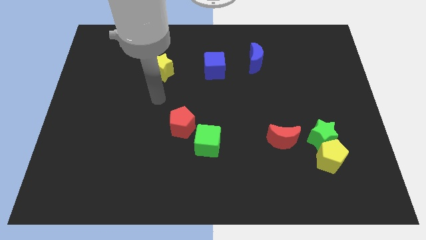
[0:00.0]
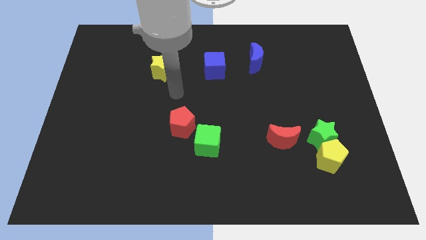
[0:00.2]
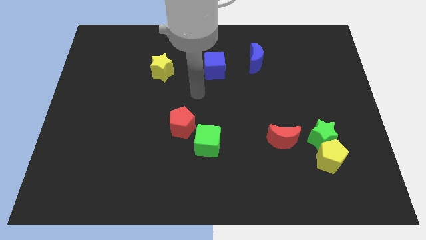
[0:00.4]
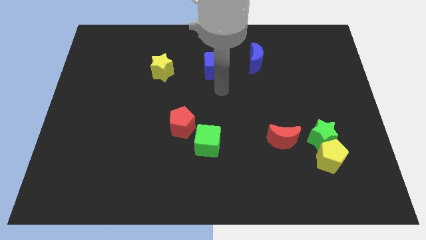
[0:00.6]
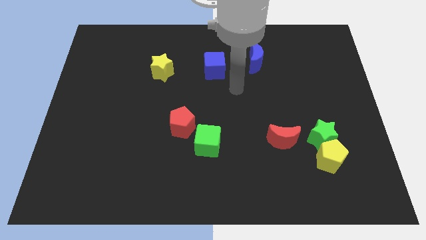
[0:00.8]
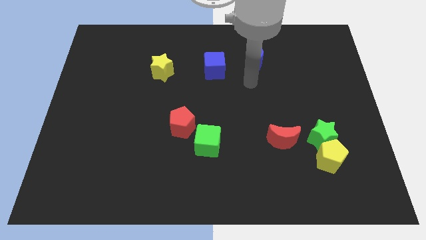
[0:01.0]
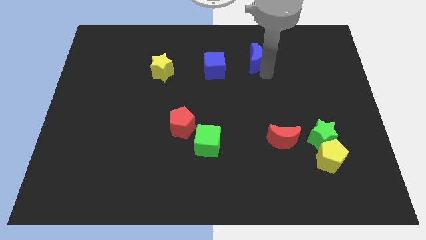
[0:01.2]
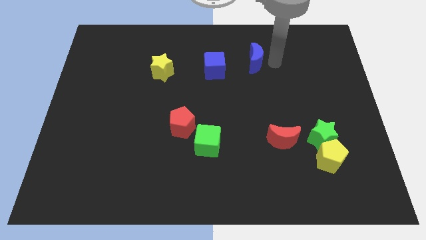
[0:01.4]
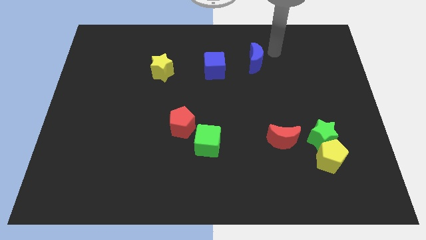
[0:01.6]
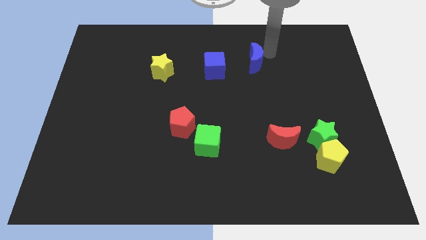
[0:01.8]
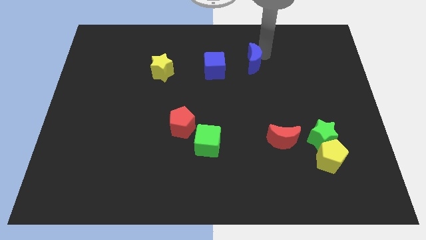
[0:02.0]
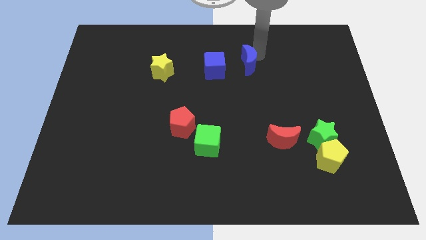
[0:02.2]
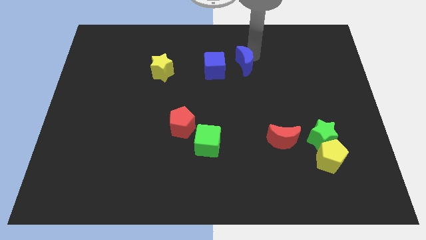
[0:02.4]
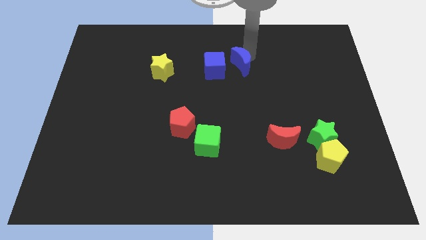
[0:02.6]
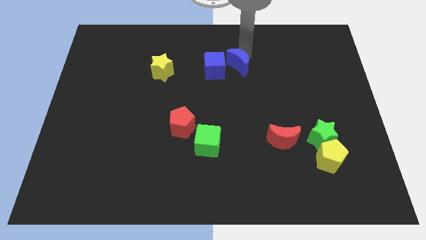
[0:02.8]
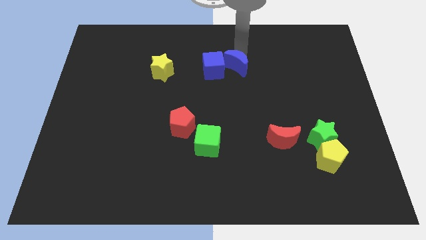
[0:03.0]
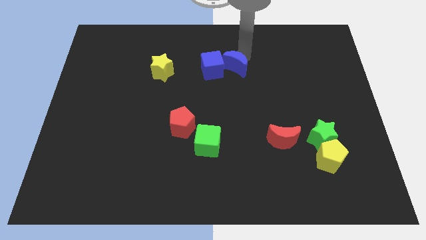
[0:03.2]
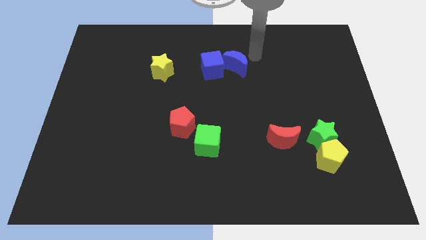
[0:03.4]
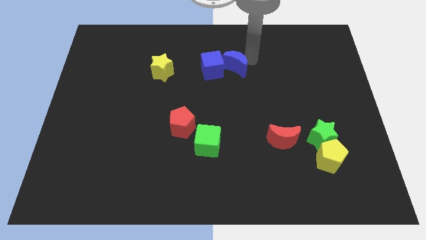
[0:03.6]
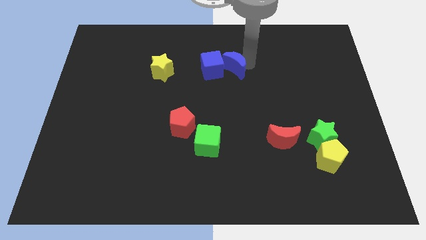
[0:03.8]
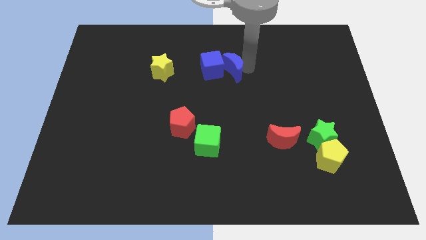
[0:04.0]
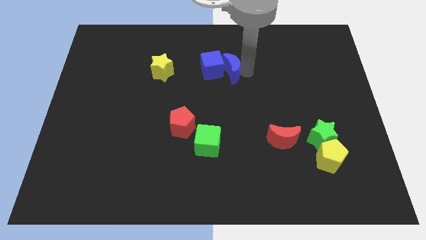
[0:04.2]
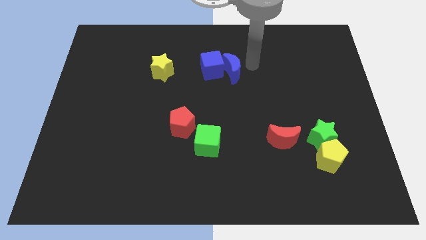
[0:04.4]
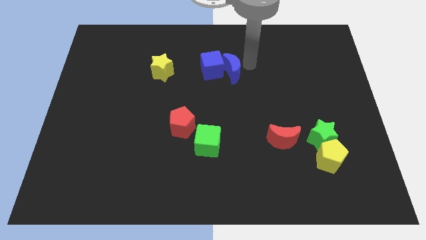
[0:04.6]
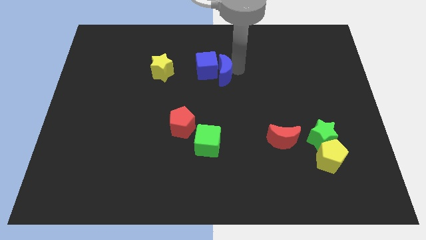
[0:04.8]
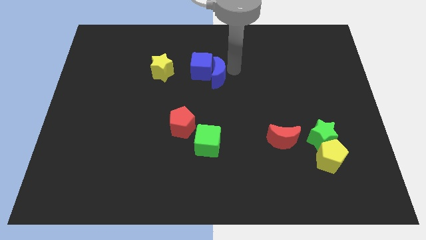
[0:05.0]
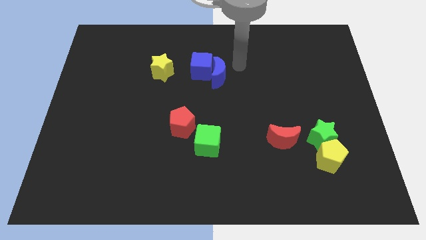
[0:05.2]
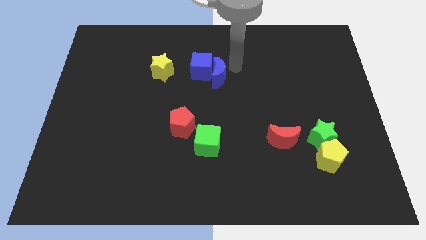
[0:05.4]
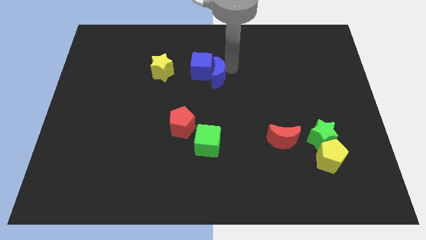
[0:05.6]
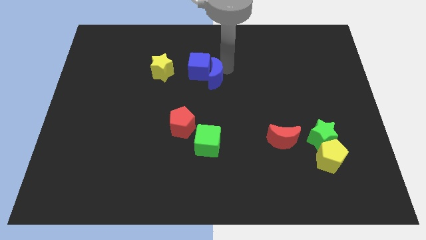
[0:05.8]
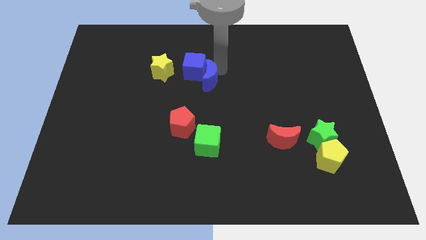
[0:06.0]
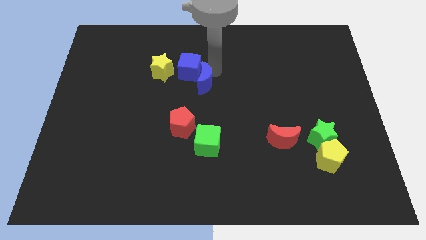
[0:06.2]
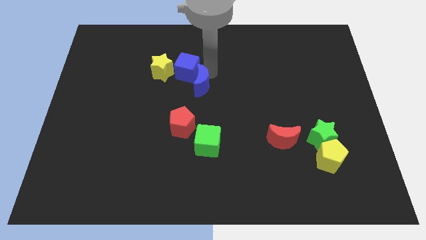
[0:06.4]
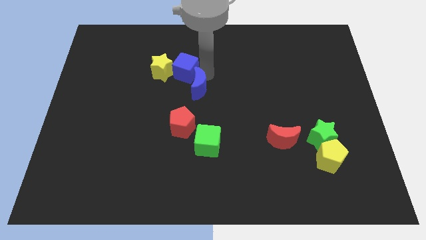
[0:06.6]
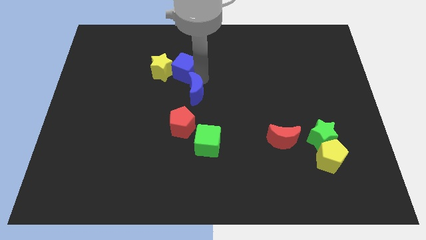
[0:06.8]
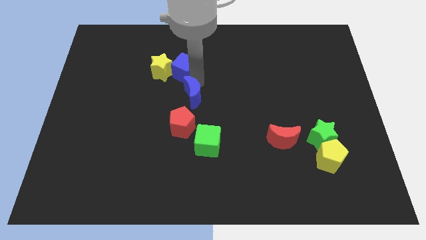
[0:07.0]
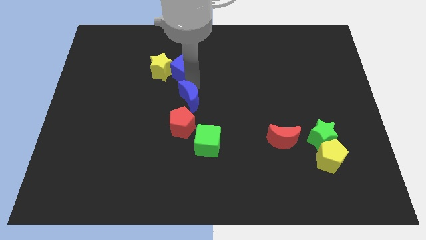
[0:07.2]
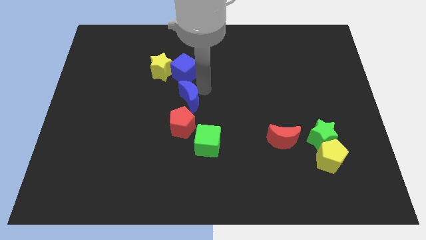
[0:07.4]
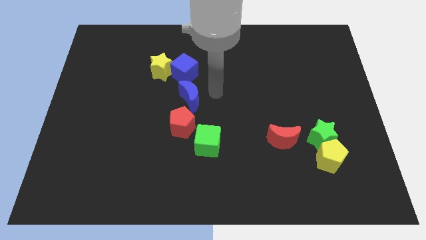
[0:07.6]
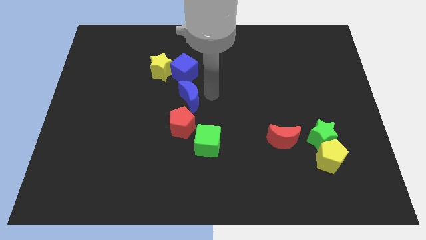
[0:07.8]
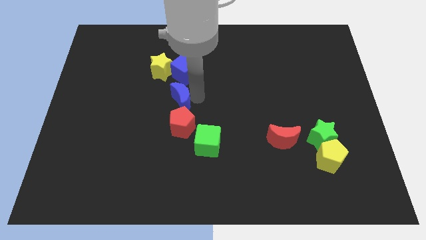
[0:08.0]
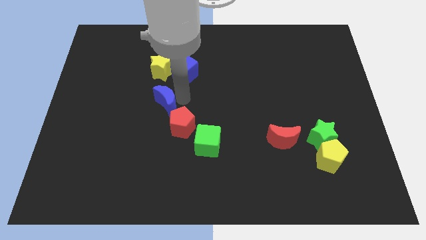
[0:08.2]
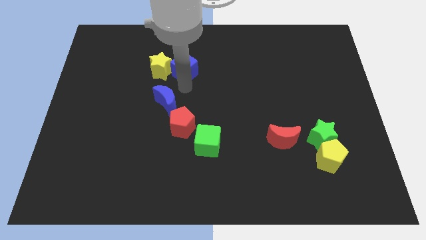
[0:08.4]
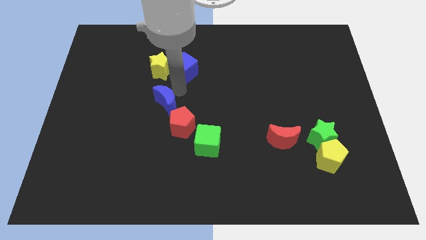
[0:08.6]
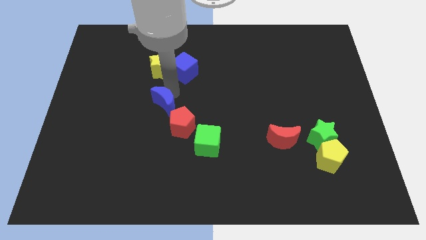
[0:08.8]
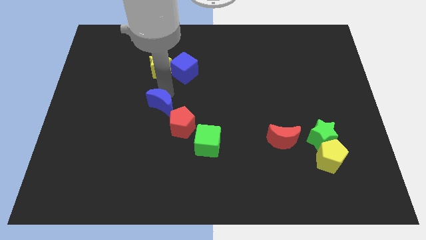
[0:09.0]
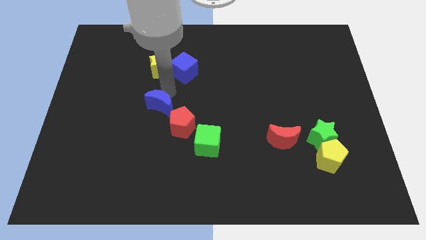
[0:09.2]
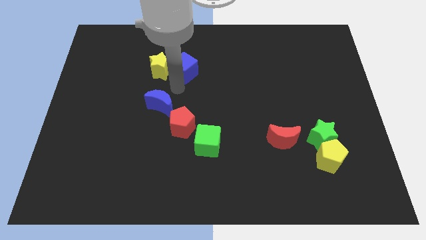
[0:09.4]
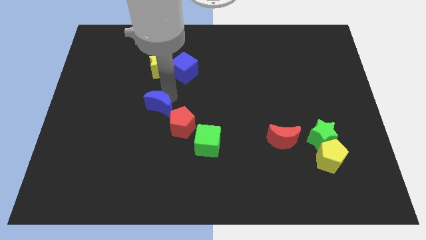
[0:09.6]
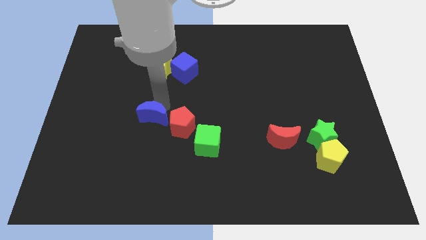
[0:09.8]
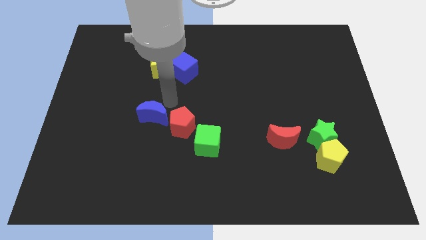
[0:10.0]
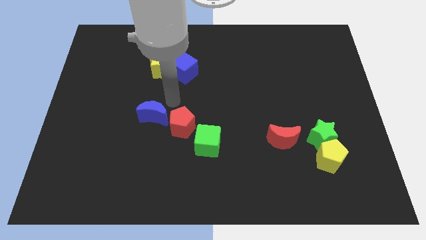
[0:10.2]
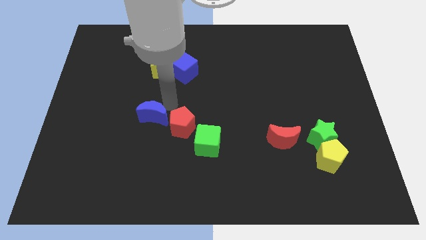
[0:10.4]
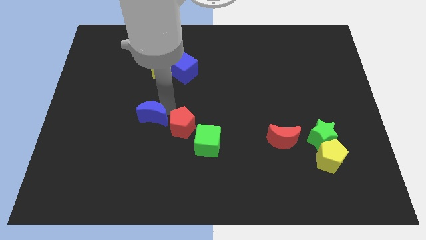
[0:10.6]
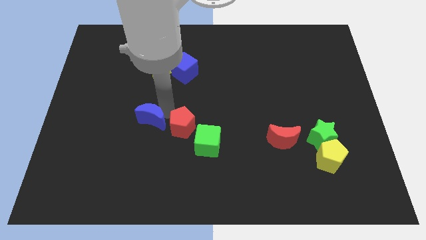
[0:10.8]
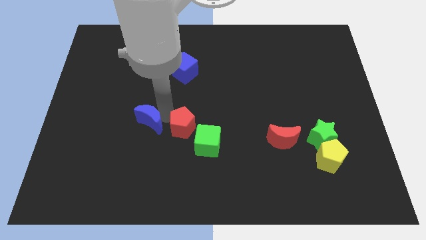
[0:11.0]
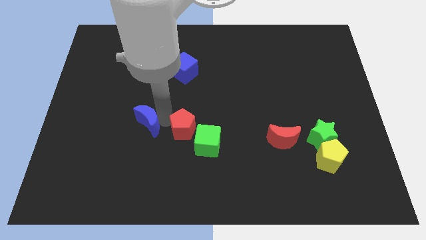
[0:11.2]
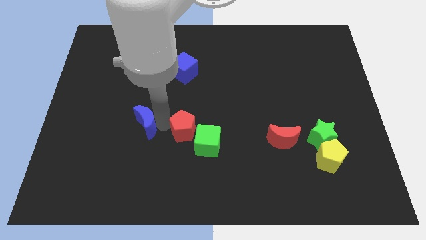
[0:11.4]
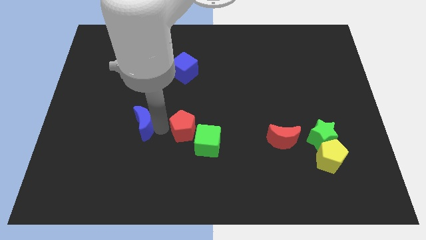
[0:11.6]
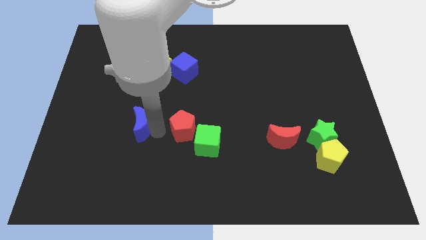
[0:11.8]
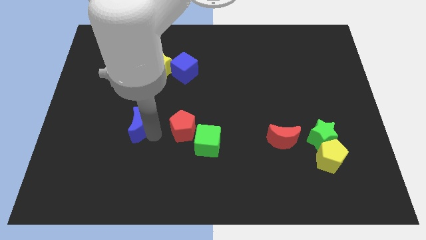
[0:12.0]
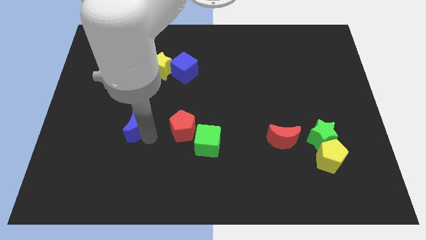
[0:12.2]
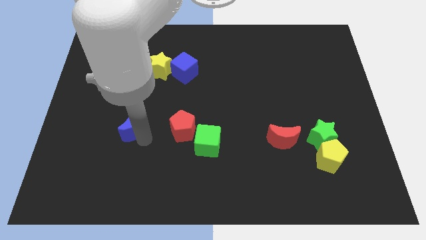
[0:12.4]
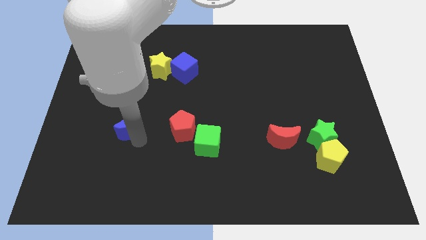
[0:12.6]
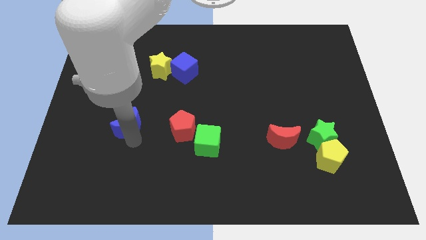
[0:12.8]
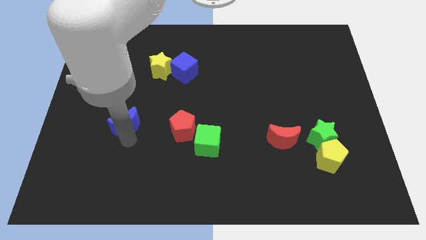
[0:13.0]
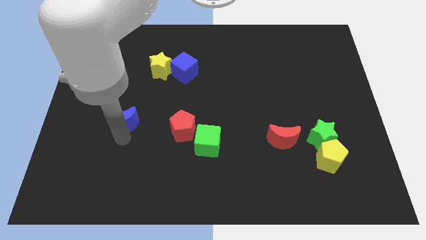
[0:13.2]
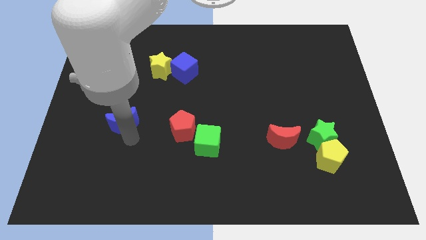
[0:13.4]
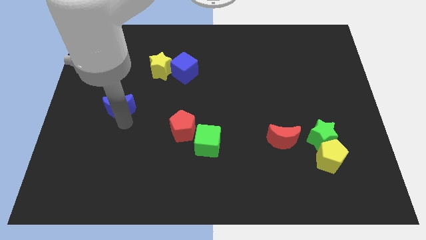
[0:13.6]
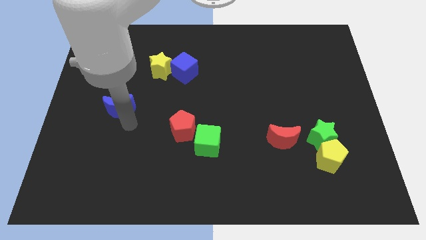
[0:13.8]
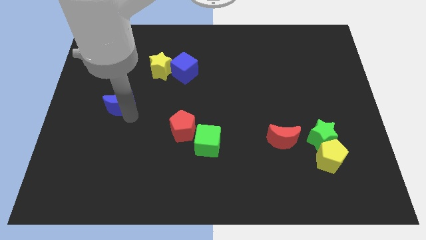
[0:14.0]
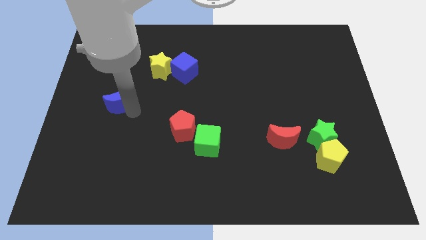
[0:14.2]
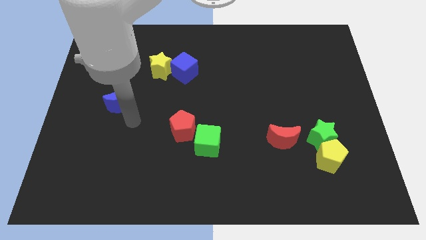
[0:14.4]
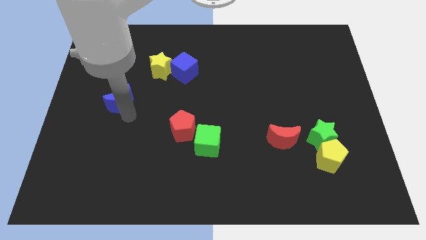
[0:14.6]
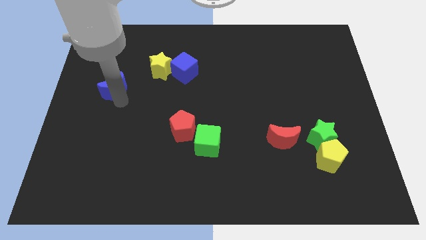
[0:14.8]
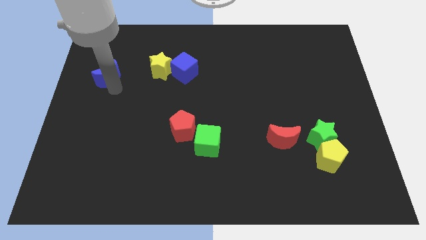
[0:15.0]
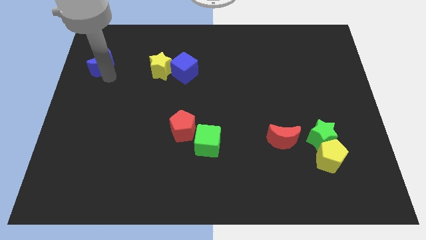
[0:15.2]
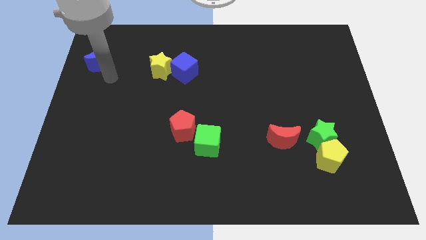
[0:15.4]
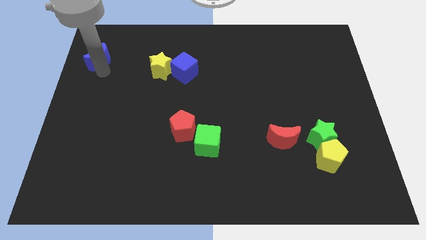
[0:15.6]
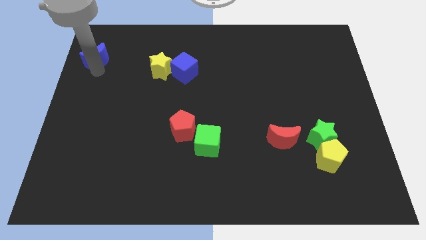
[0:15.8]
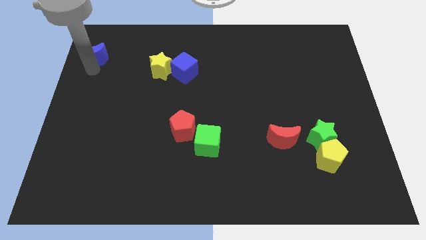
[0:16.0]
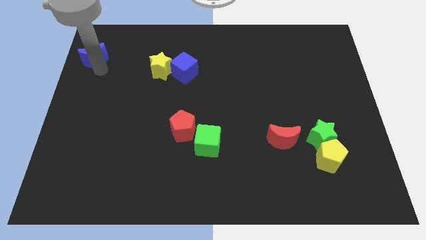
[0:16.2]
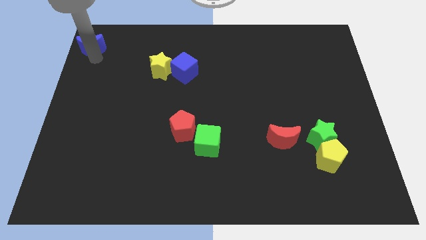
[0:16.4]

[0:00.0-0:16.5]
slide the blue moon to the top left of the board
